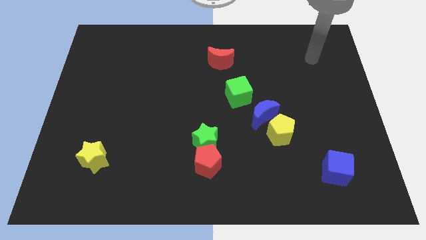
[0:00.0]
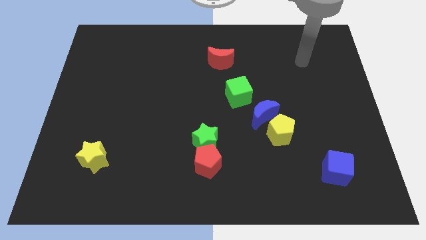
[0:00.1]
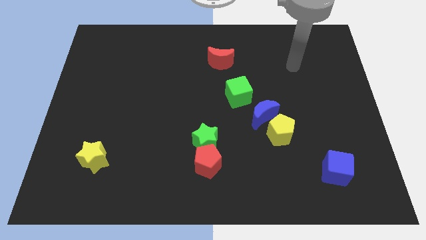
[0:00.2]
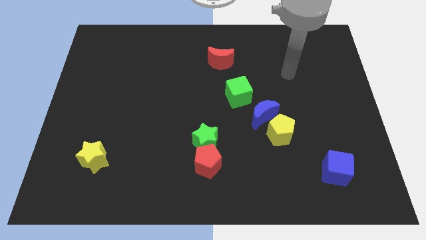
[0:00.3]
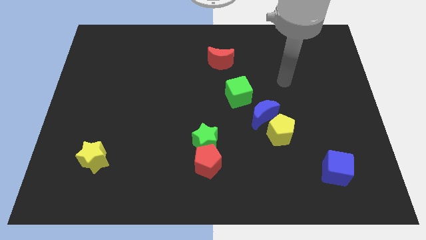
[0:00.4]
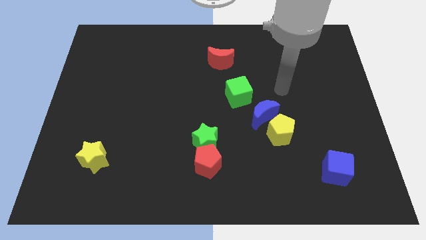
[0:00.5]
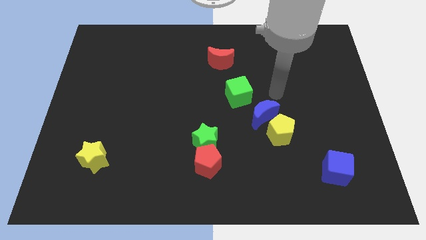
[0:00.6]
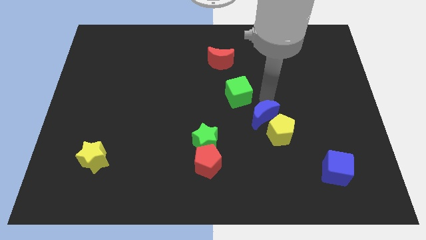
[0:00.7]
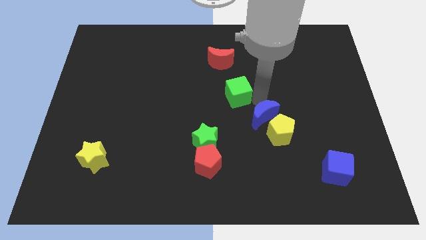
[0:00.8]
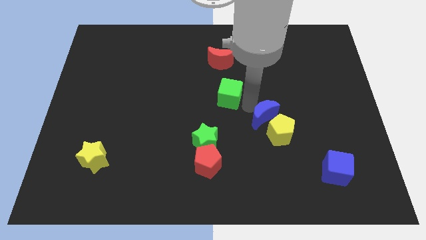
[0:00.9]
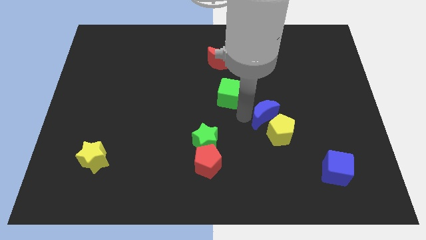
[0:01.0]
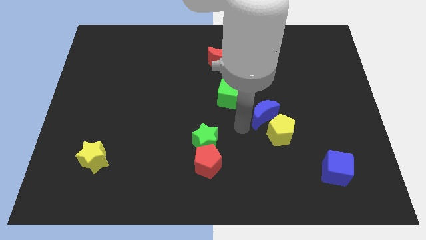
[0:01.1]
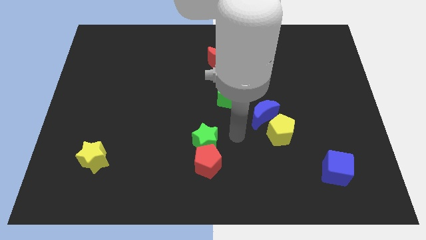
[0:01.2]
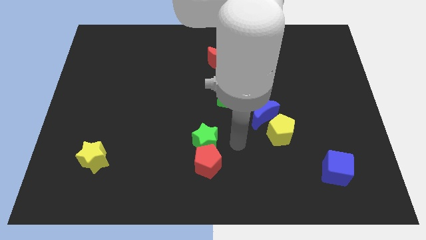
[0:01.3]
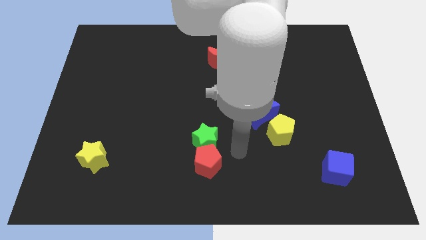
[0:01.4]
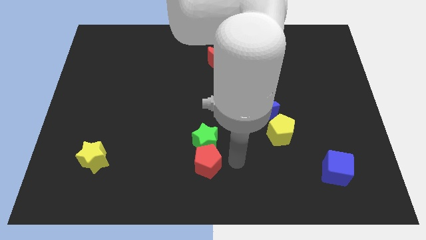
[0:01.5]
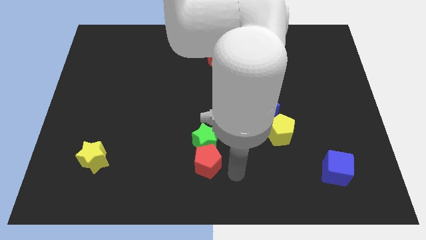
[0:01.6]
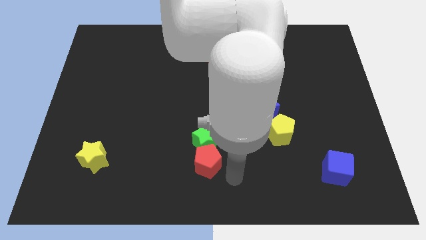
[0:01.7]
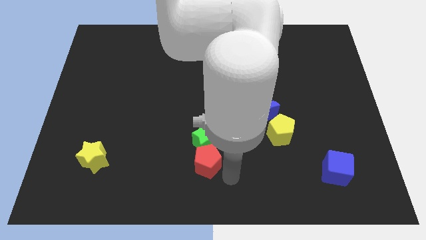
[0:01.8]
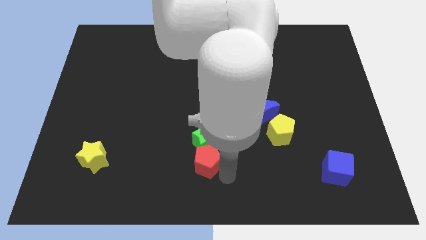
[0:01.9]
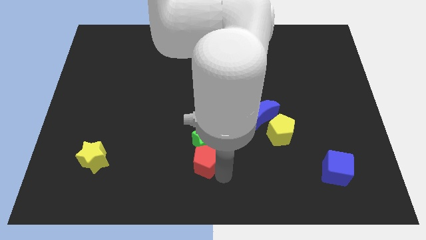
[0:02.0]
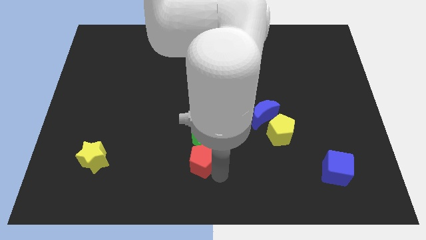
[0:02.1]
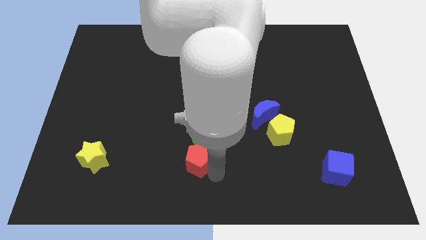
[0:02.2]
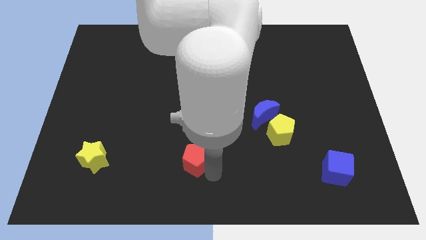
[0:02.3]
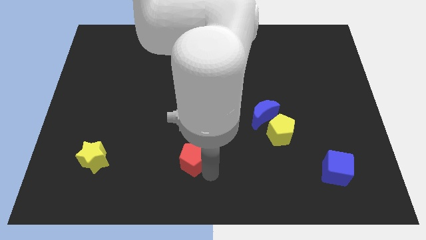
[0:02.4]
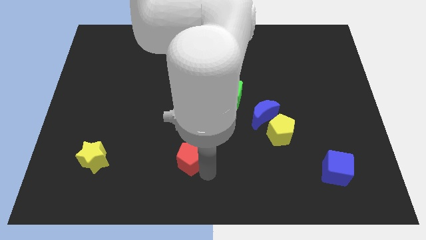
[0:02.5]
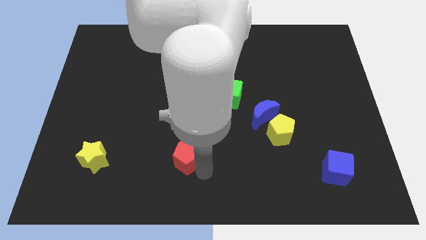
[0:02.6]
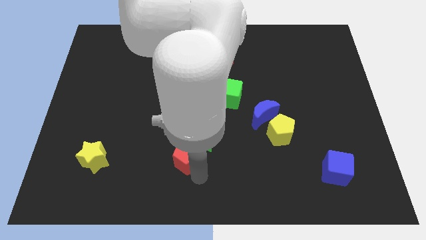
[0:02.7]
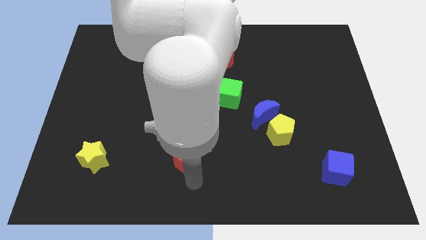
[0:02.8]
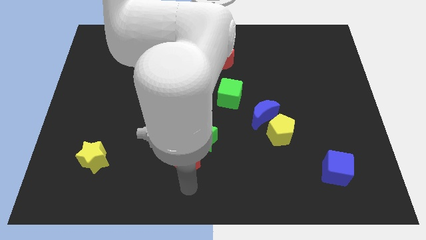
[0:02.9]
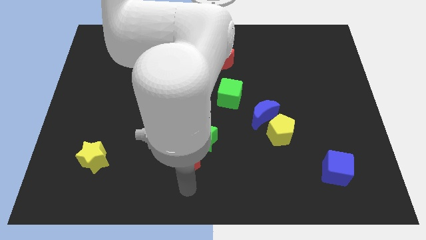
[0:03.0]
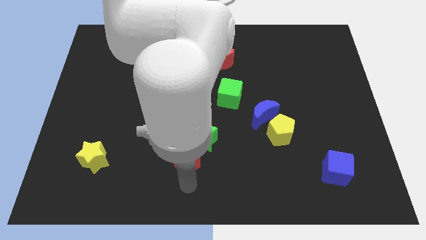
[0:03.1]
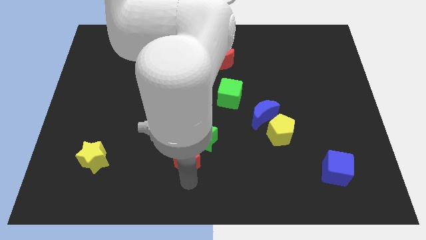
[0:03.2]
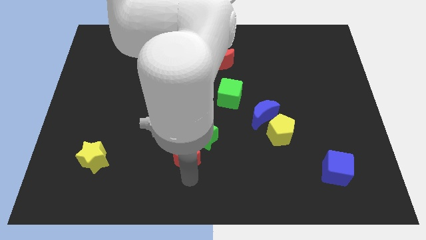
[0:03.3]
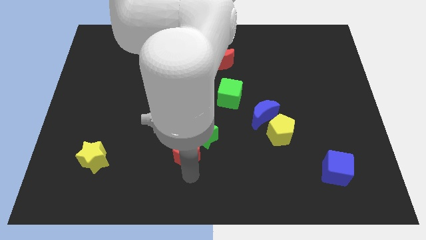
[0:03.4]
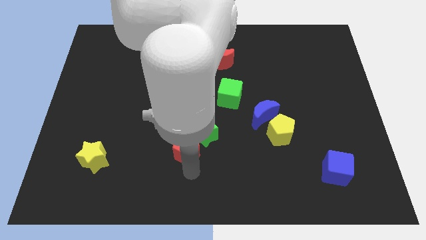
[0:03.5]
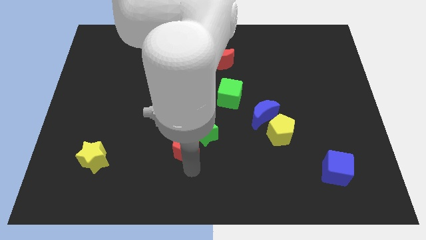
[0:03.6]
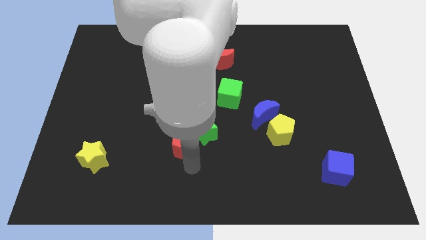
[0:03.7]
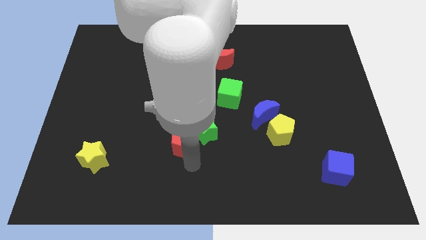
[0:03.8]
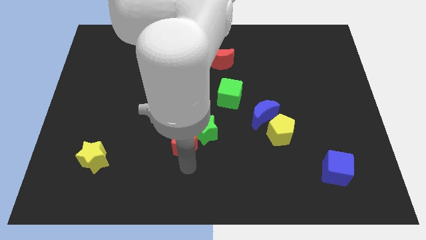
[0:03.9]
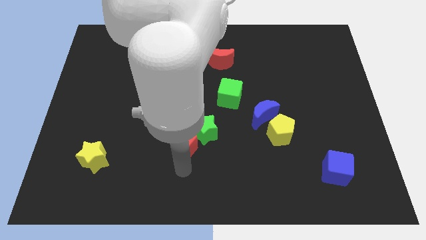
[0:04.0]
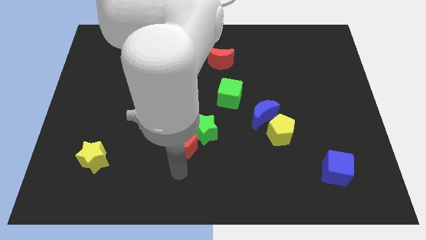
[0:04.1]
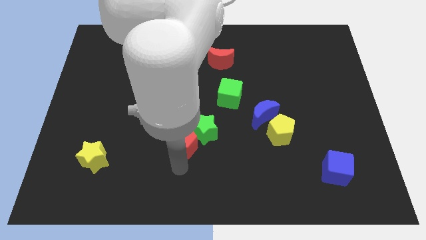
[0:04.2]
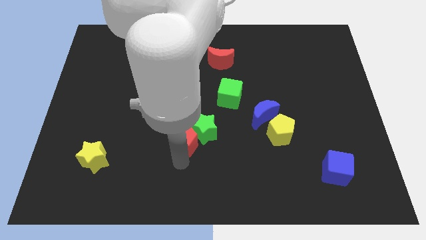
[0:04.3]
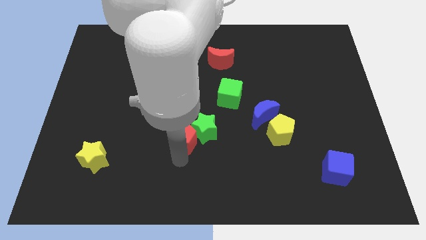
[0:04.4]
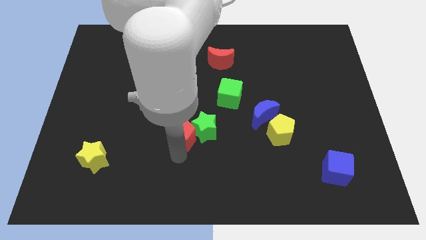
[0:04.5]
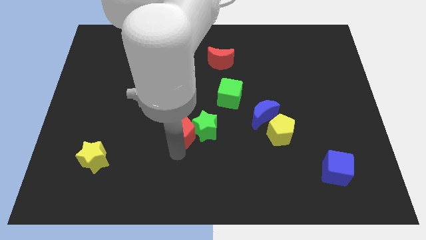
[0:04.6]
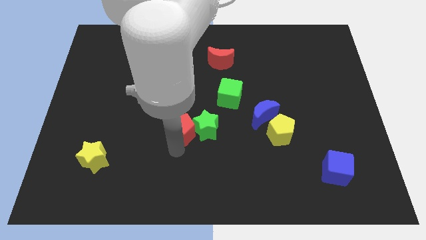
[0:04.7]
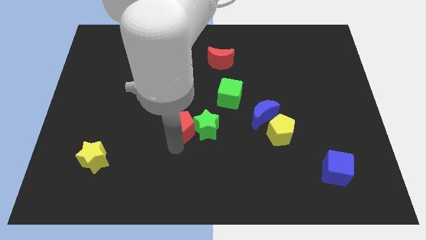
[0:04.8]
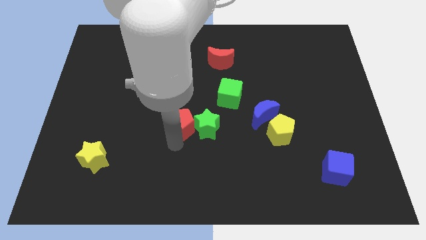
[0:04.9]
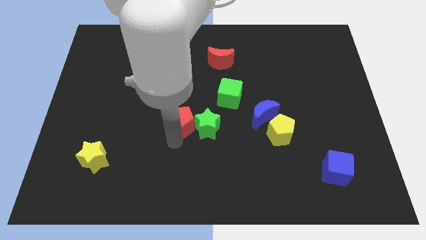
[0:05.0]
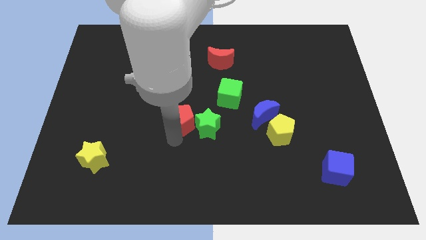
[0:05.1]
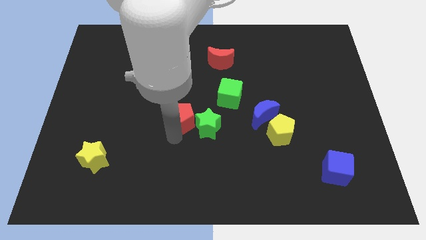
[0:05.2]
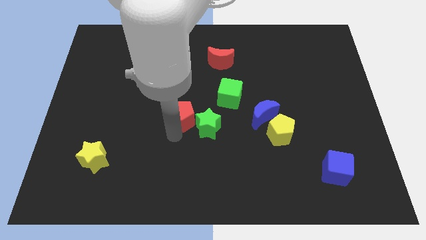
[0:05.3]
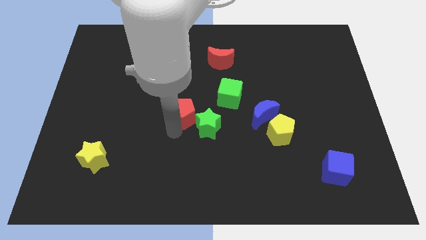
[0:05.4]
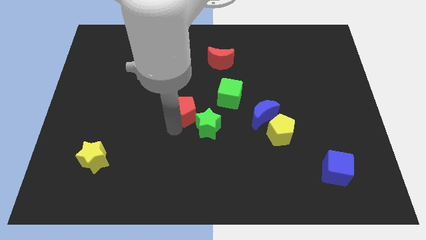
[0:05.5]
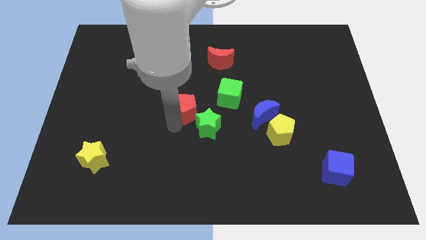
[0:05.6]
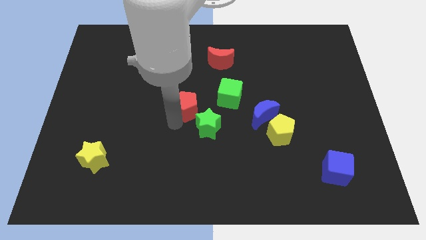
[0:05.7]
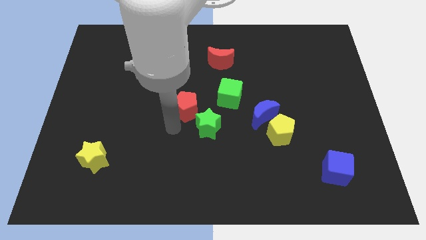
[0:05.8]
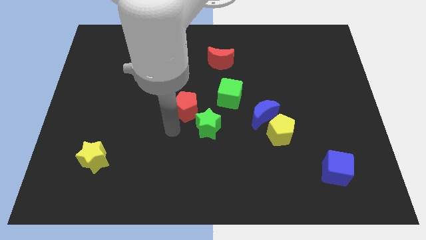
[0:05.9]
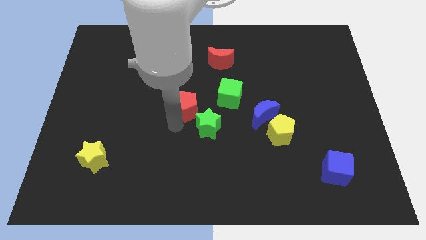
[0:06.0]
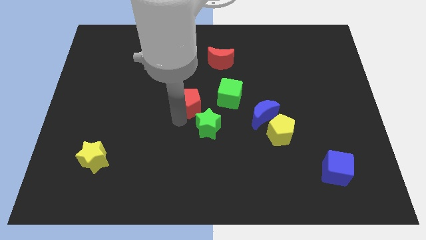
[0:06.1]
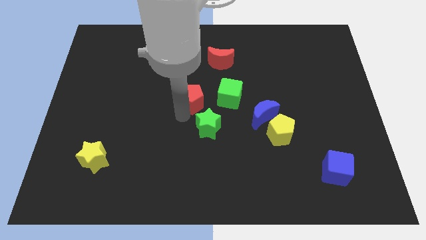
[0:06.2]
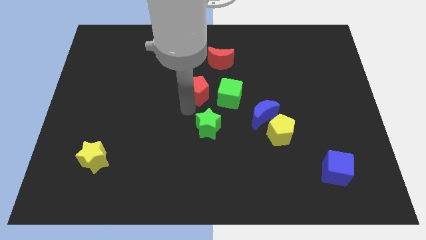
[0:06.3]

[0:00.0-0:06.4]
move the red pentagon diagonally down and to the left of the red moon
